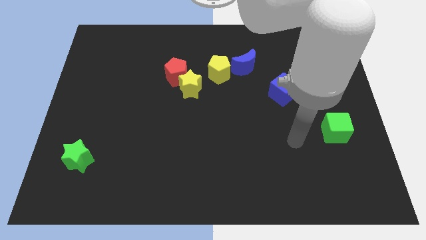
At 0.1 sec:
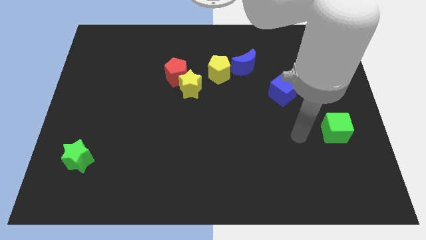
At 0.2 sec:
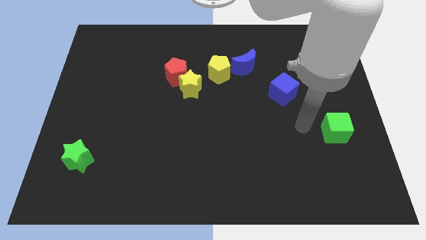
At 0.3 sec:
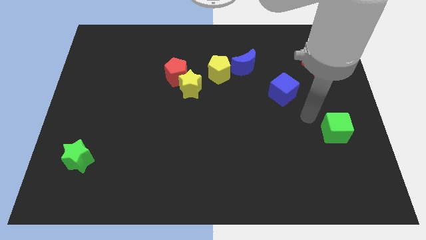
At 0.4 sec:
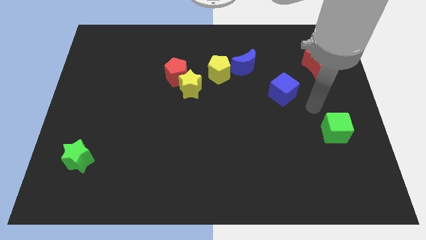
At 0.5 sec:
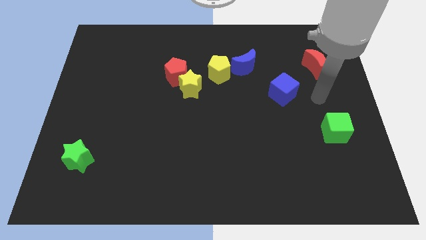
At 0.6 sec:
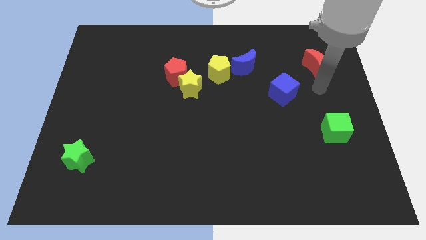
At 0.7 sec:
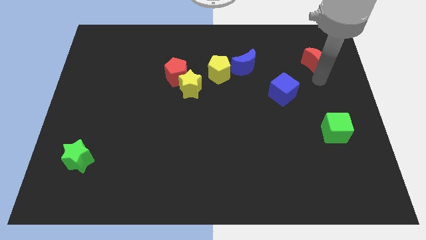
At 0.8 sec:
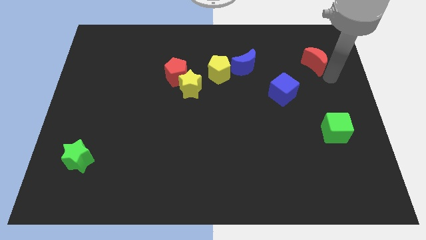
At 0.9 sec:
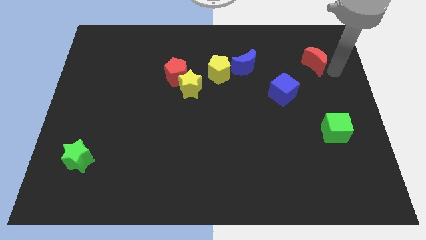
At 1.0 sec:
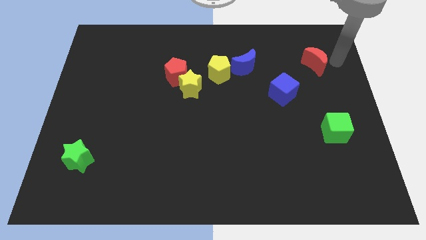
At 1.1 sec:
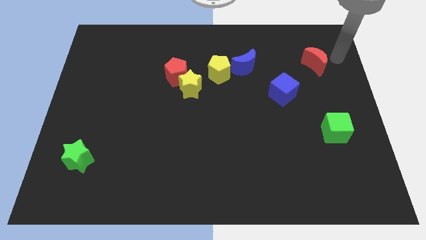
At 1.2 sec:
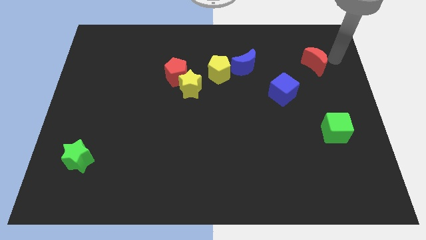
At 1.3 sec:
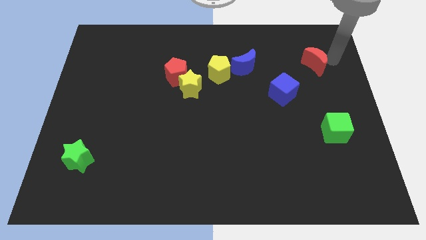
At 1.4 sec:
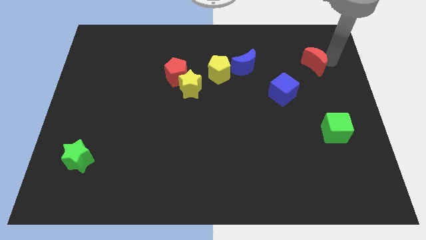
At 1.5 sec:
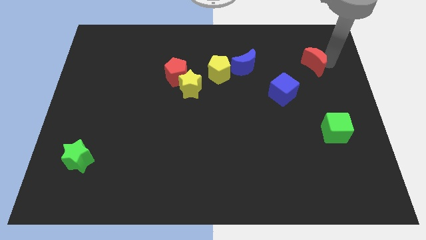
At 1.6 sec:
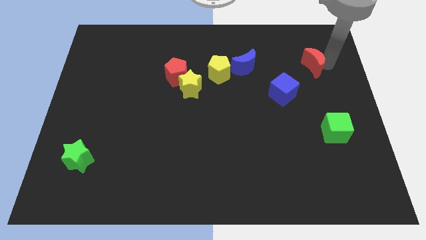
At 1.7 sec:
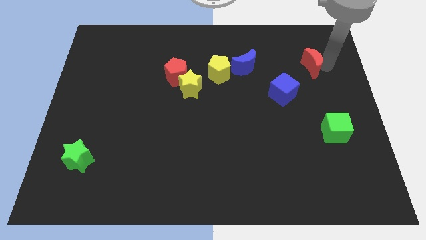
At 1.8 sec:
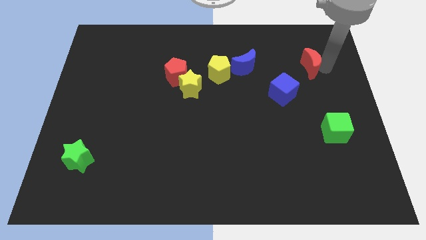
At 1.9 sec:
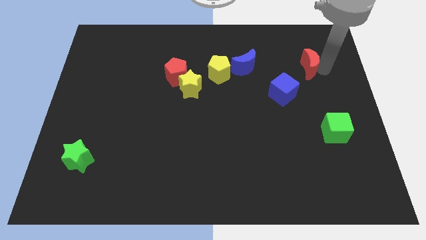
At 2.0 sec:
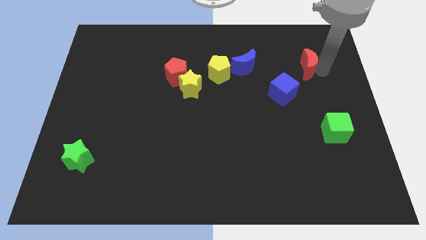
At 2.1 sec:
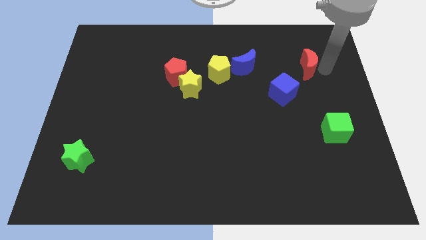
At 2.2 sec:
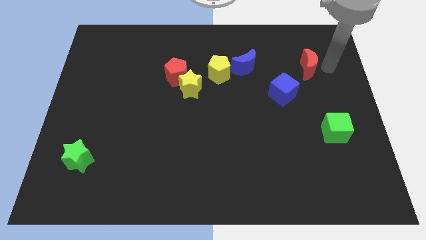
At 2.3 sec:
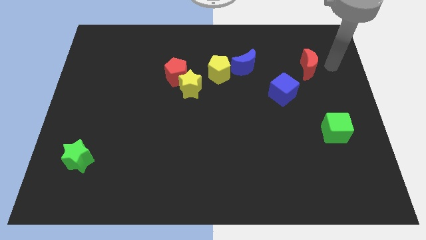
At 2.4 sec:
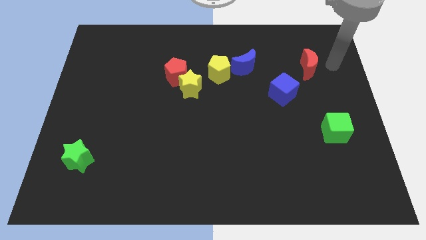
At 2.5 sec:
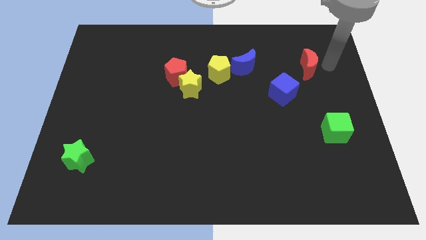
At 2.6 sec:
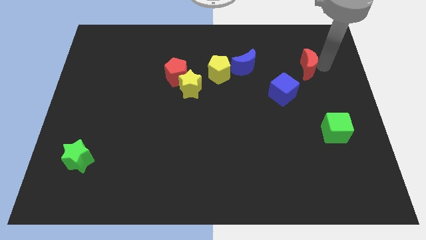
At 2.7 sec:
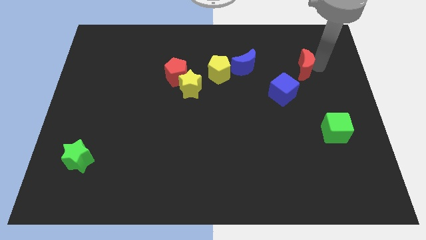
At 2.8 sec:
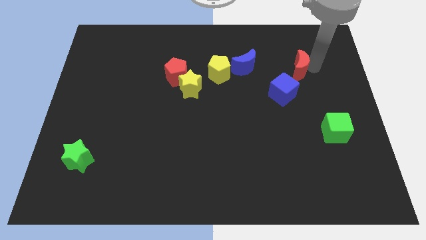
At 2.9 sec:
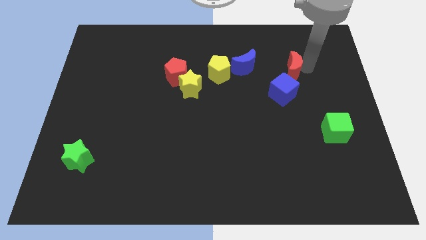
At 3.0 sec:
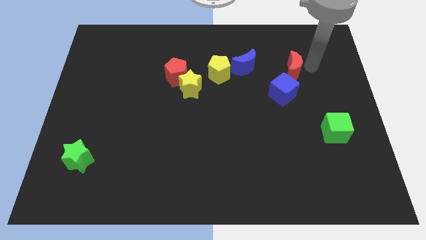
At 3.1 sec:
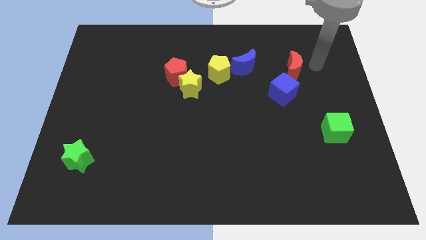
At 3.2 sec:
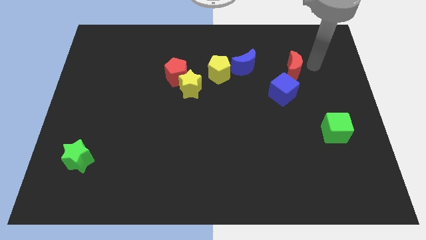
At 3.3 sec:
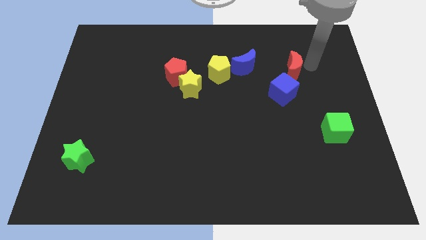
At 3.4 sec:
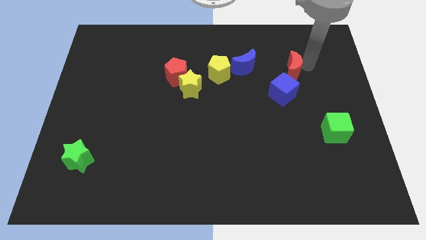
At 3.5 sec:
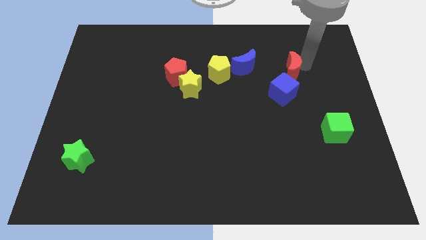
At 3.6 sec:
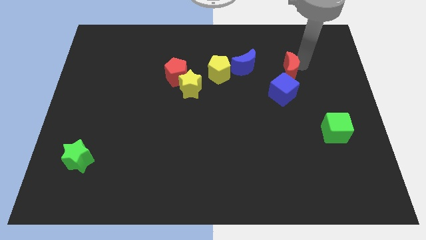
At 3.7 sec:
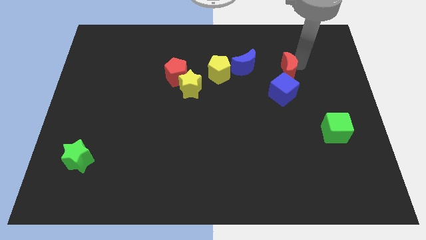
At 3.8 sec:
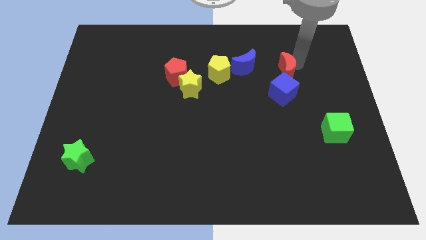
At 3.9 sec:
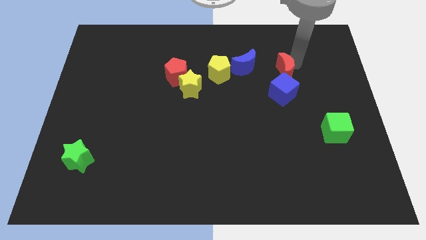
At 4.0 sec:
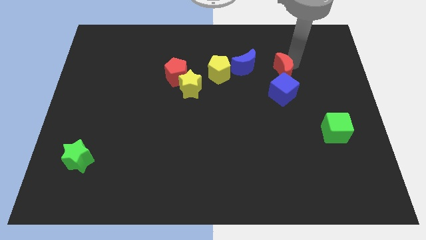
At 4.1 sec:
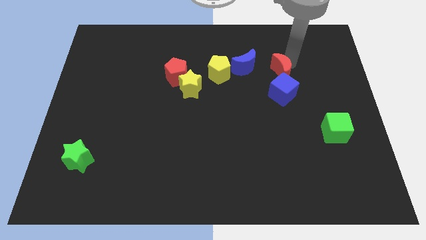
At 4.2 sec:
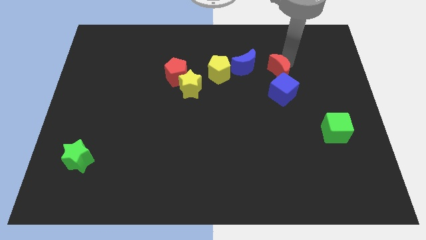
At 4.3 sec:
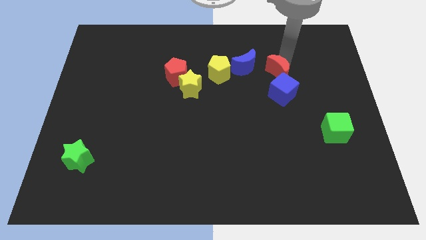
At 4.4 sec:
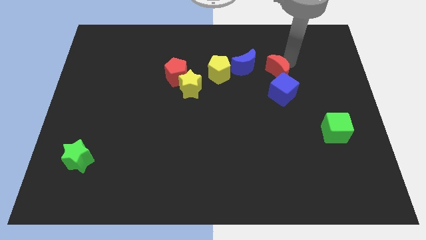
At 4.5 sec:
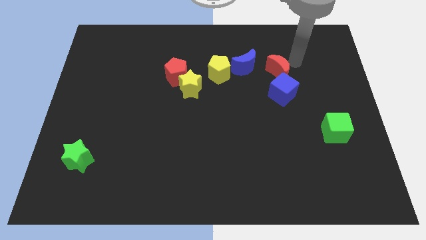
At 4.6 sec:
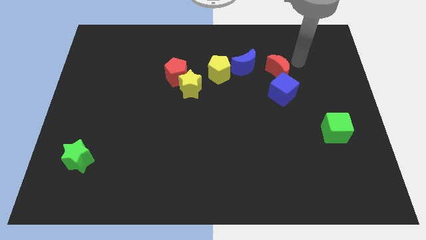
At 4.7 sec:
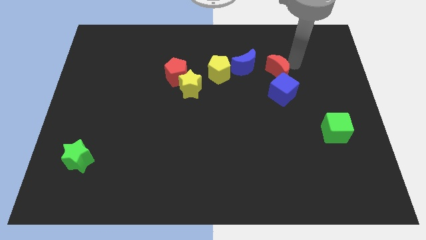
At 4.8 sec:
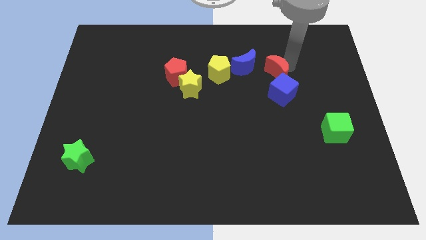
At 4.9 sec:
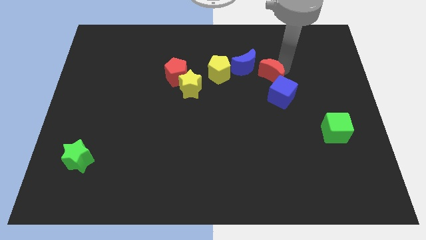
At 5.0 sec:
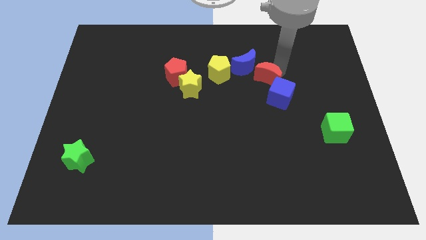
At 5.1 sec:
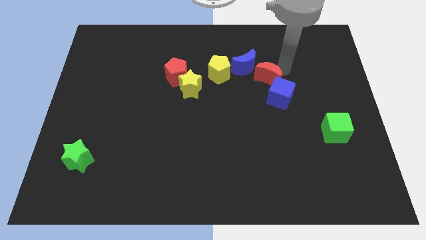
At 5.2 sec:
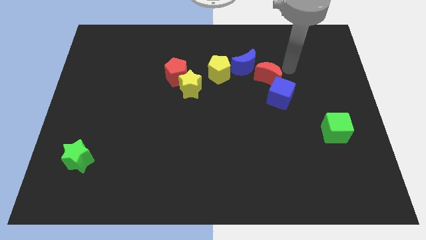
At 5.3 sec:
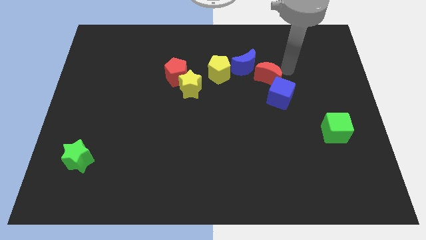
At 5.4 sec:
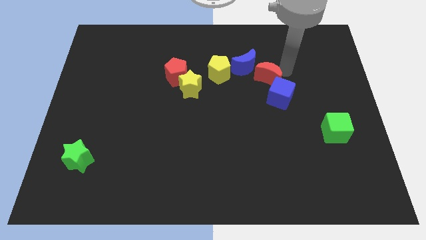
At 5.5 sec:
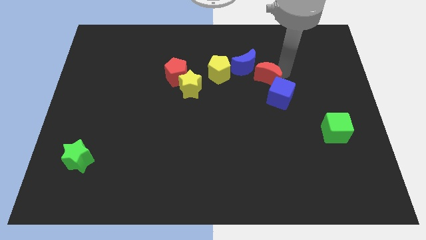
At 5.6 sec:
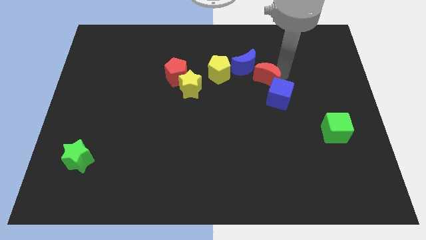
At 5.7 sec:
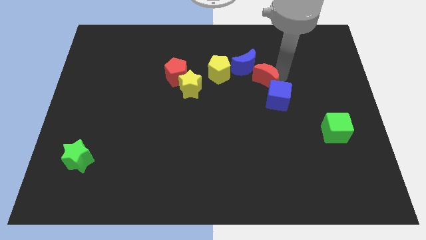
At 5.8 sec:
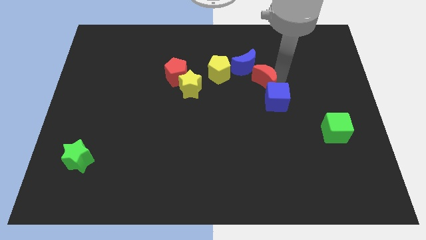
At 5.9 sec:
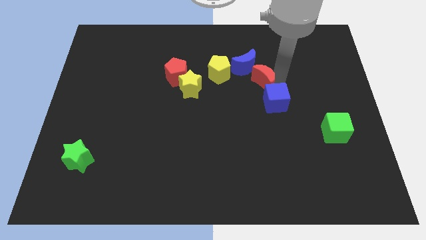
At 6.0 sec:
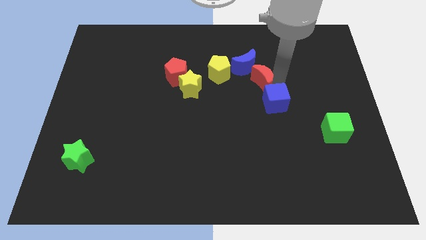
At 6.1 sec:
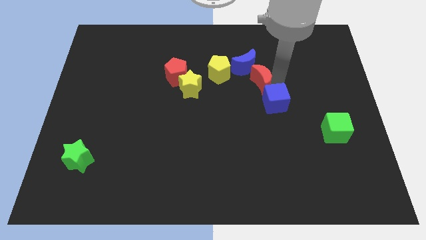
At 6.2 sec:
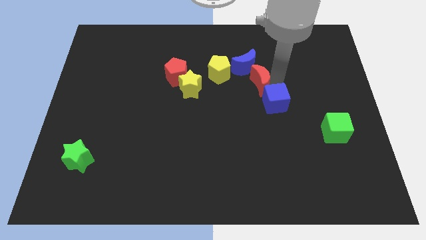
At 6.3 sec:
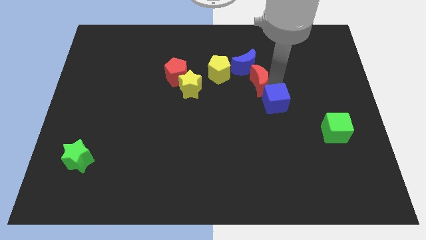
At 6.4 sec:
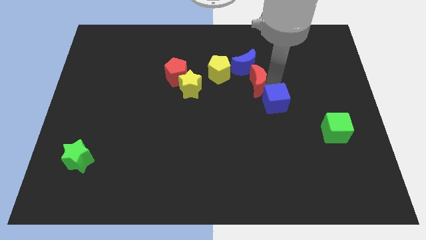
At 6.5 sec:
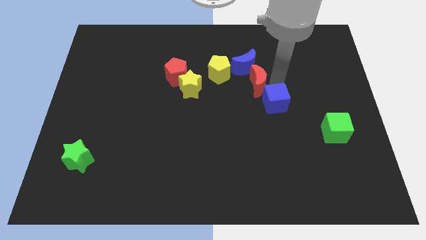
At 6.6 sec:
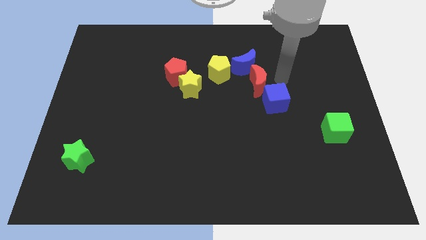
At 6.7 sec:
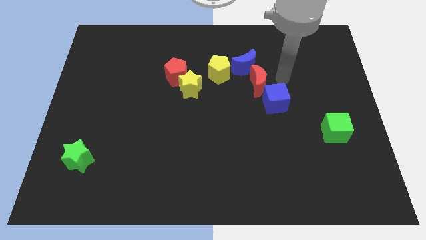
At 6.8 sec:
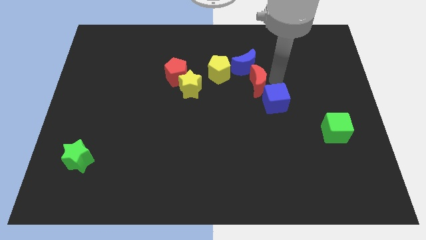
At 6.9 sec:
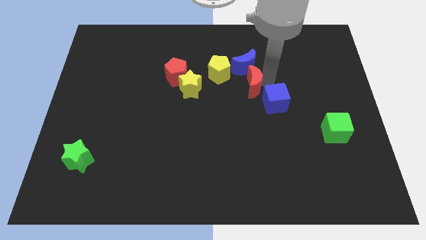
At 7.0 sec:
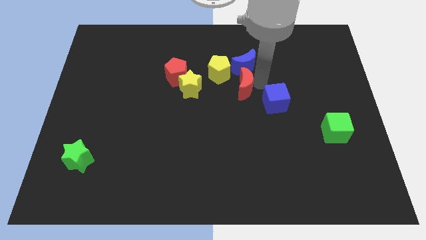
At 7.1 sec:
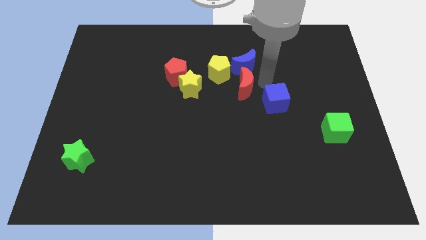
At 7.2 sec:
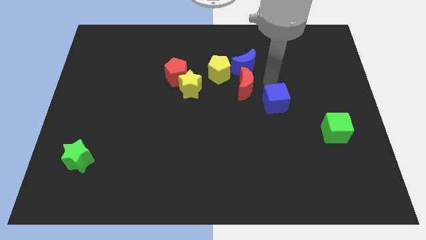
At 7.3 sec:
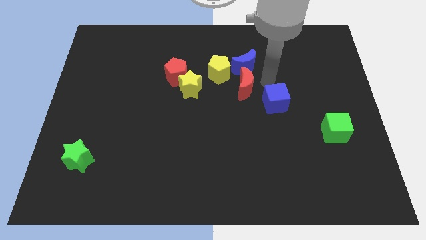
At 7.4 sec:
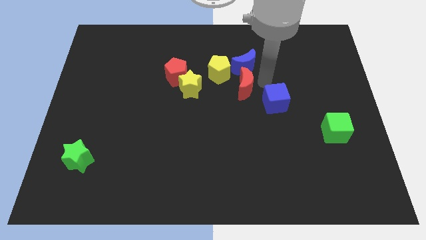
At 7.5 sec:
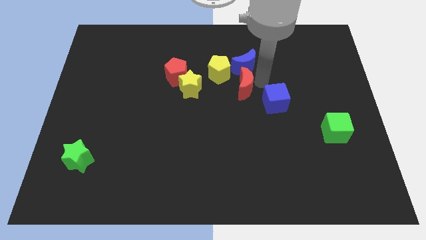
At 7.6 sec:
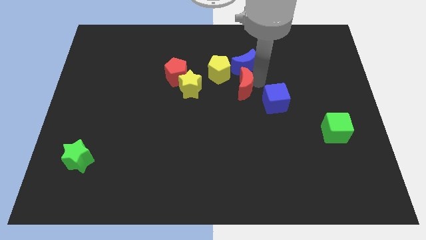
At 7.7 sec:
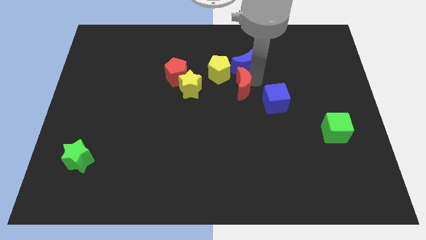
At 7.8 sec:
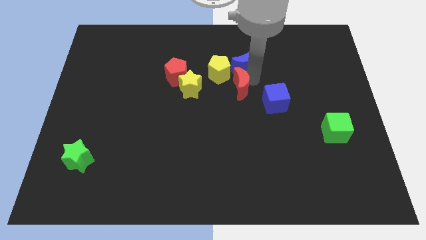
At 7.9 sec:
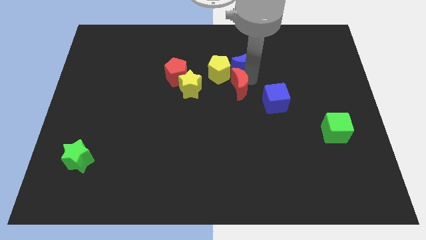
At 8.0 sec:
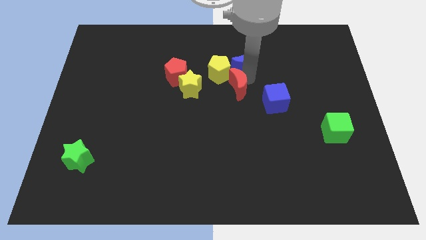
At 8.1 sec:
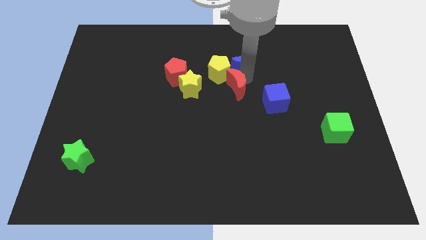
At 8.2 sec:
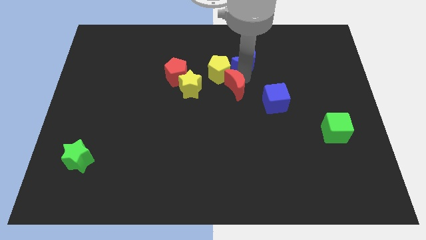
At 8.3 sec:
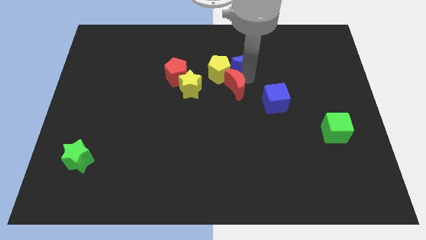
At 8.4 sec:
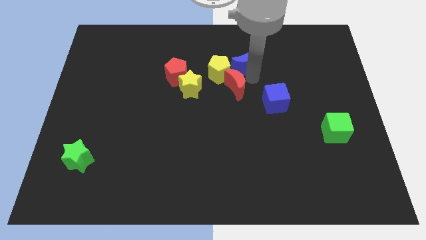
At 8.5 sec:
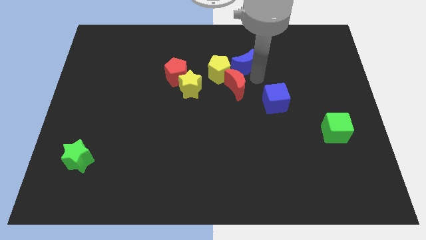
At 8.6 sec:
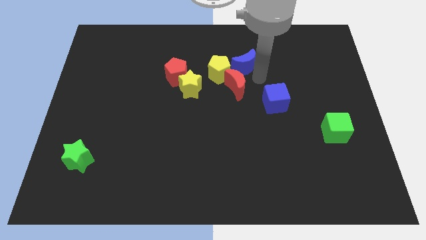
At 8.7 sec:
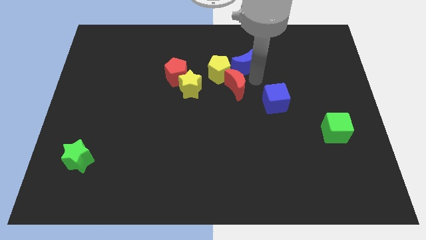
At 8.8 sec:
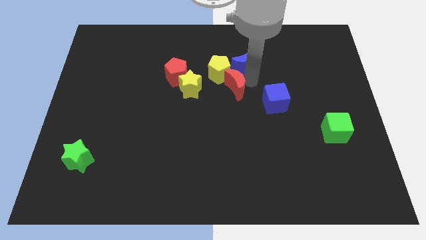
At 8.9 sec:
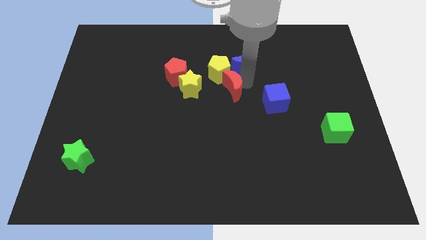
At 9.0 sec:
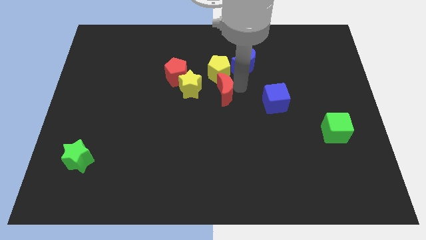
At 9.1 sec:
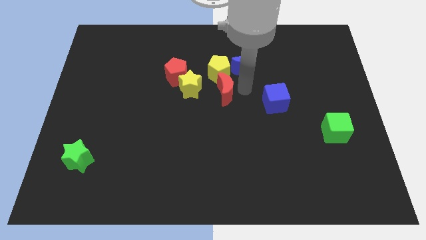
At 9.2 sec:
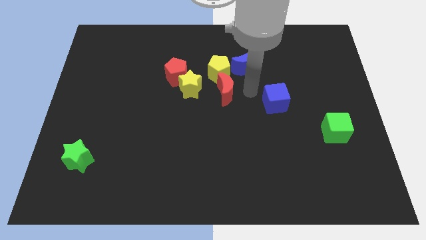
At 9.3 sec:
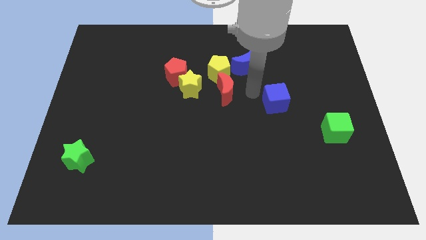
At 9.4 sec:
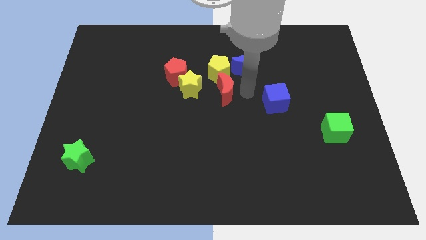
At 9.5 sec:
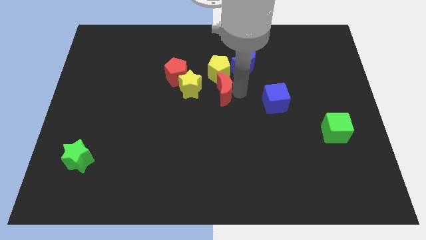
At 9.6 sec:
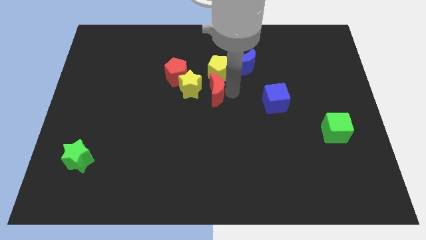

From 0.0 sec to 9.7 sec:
put the red moon to the bottom right side of the red pentagon
